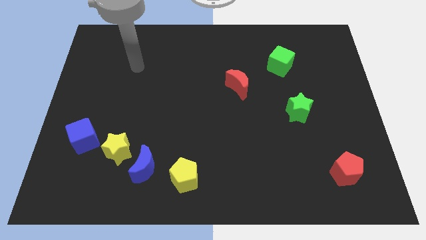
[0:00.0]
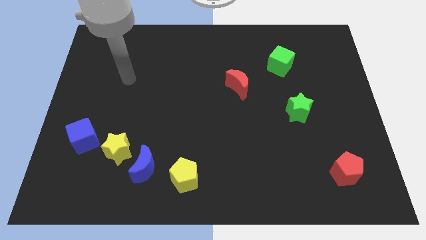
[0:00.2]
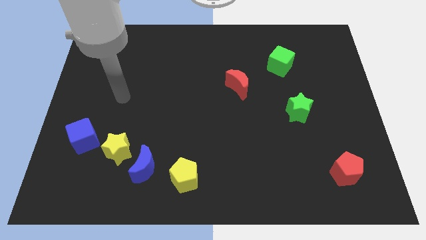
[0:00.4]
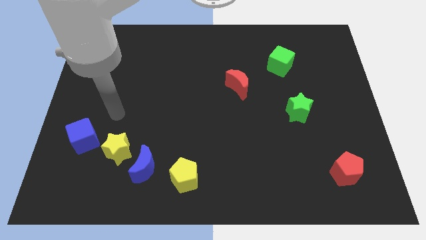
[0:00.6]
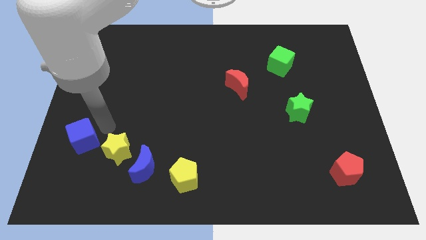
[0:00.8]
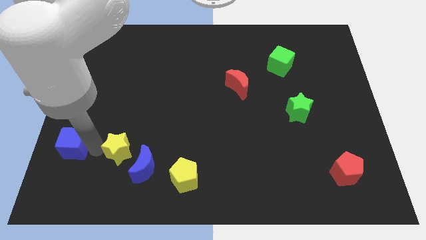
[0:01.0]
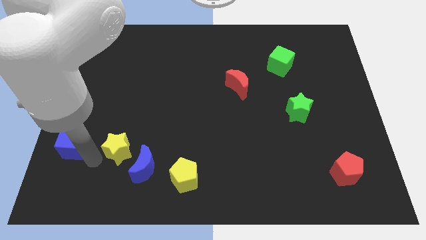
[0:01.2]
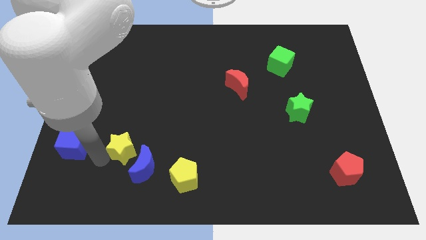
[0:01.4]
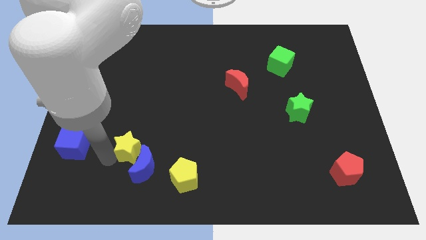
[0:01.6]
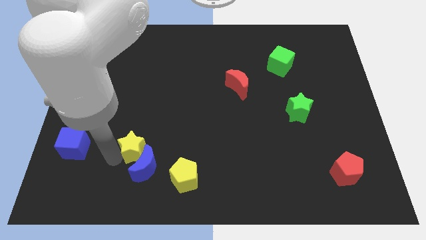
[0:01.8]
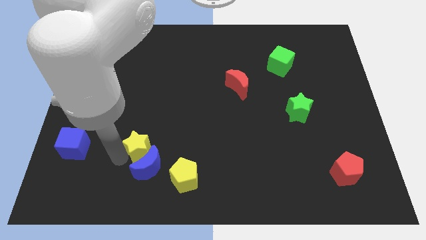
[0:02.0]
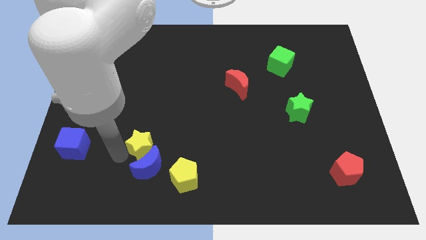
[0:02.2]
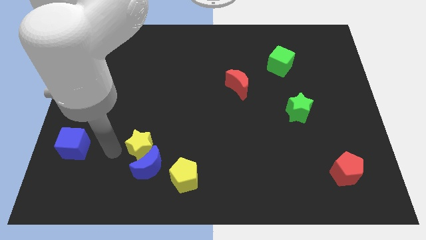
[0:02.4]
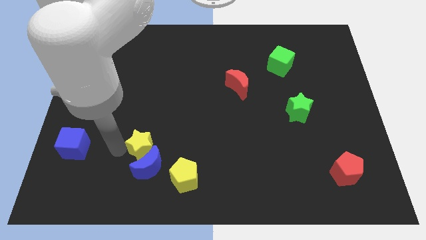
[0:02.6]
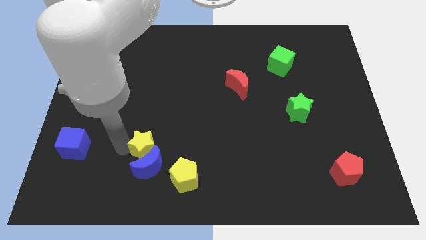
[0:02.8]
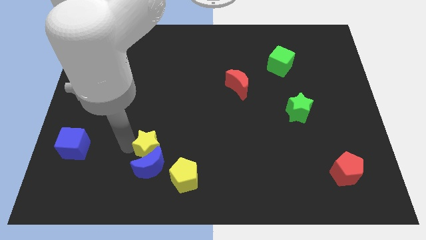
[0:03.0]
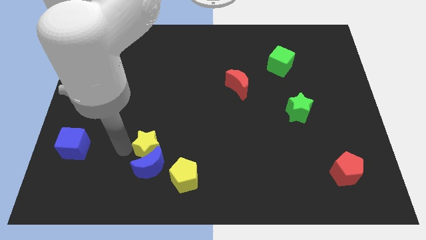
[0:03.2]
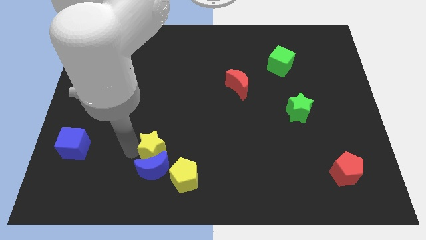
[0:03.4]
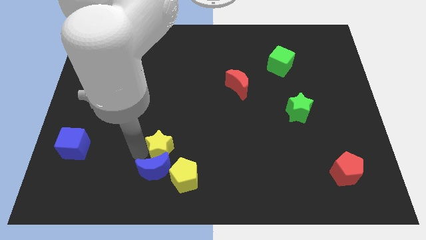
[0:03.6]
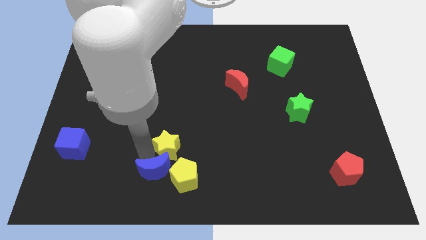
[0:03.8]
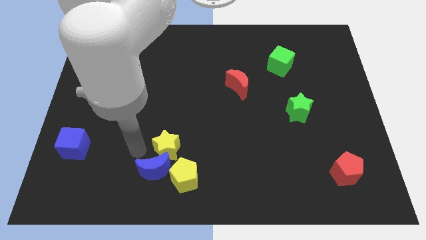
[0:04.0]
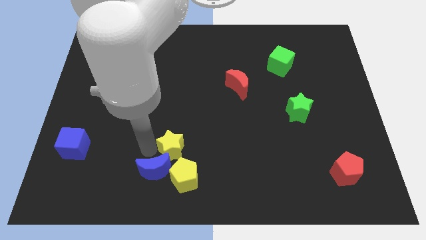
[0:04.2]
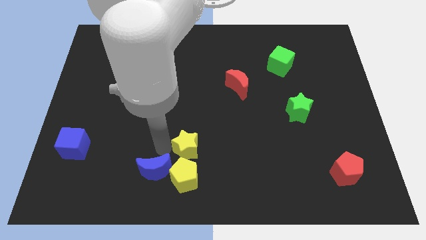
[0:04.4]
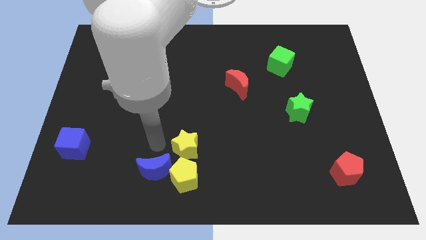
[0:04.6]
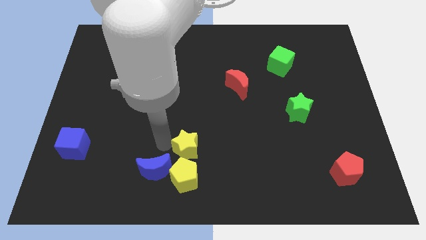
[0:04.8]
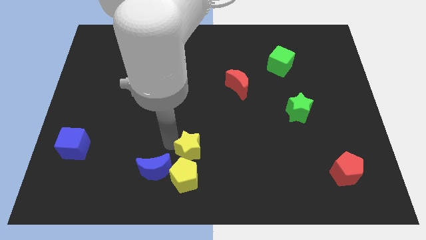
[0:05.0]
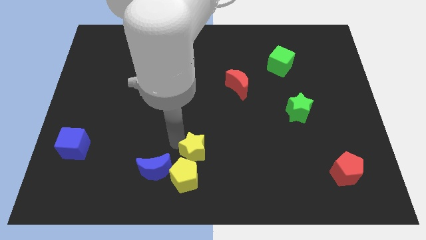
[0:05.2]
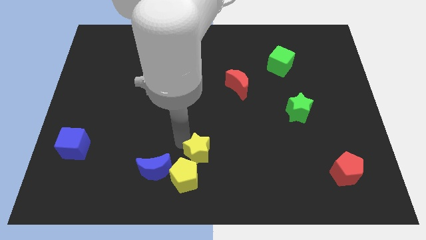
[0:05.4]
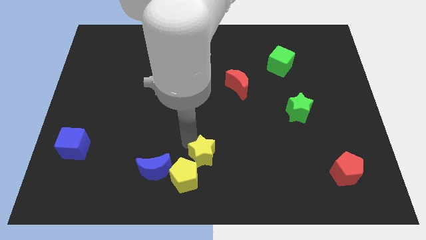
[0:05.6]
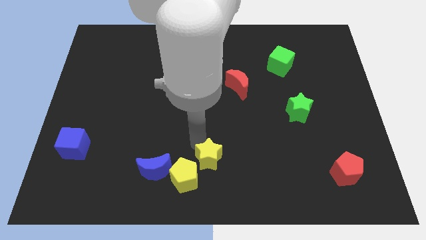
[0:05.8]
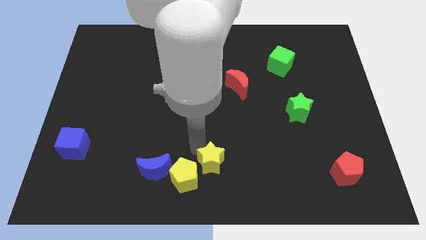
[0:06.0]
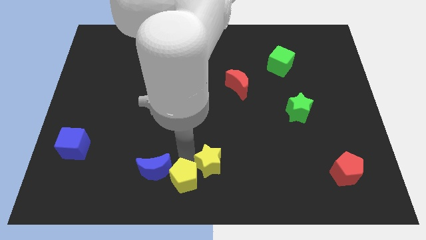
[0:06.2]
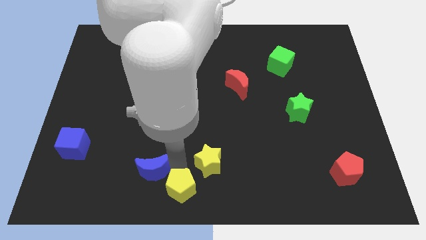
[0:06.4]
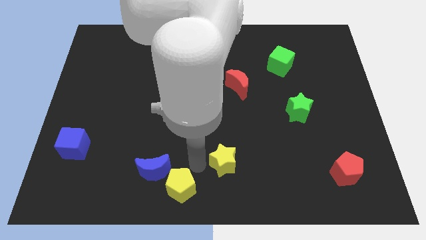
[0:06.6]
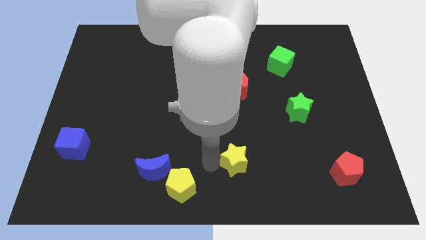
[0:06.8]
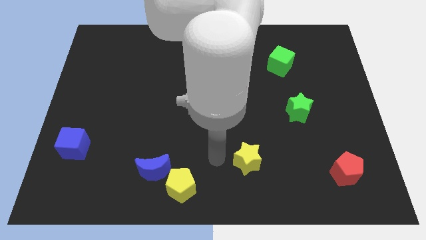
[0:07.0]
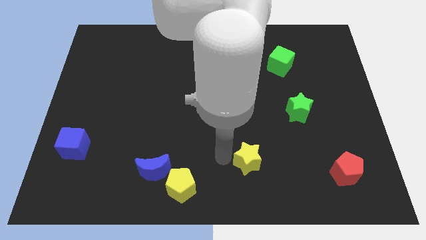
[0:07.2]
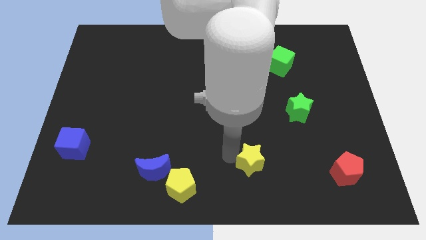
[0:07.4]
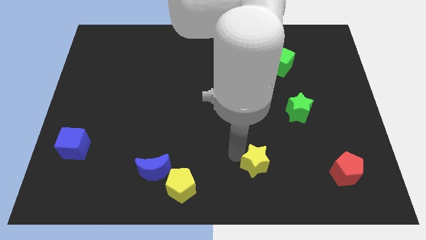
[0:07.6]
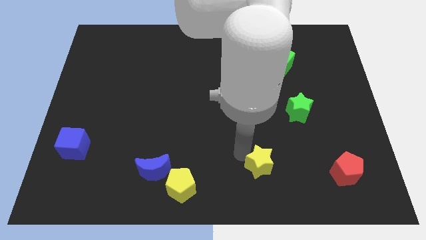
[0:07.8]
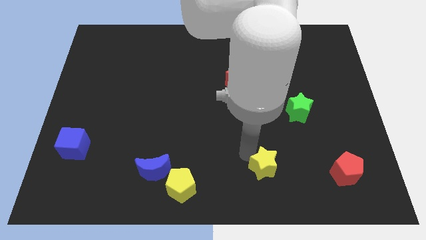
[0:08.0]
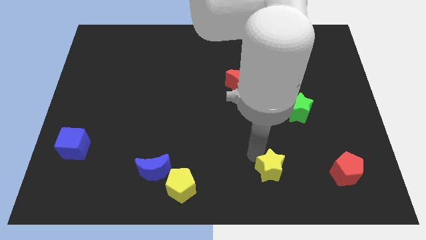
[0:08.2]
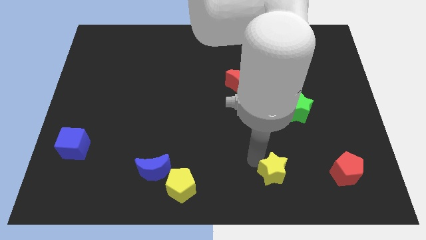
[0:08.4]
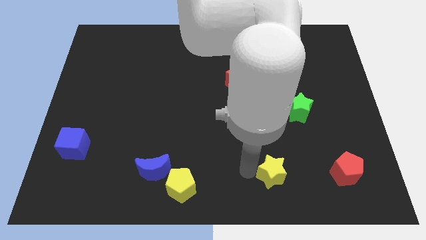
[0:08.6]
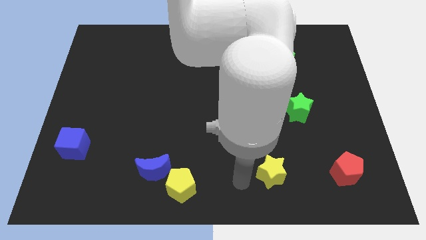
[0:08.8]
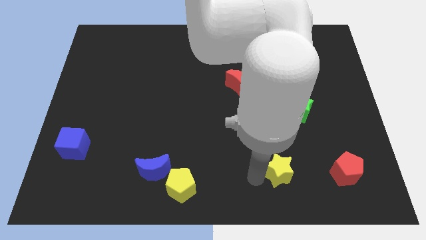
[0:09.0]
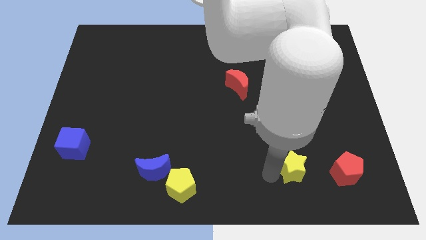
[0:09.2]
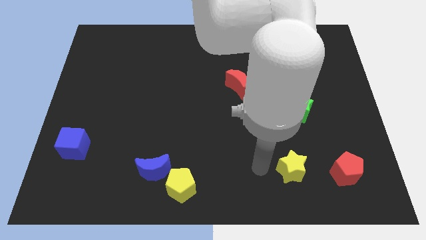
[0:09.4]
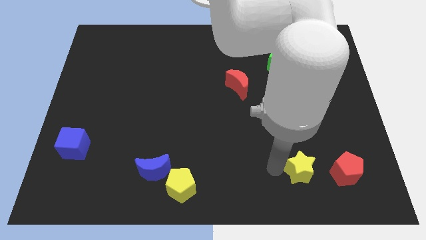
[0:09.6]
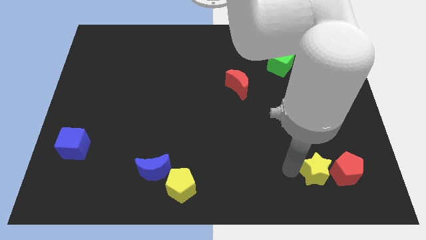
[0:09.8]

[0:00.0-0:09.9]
push the yellow star next to the red pentagon

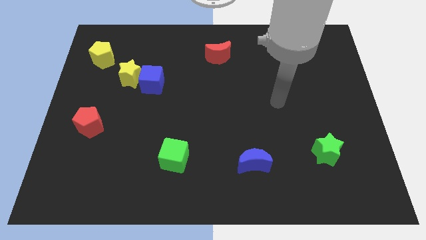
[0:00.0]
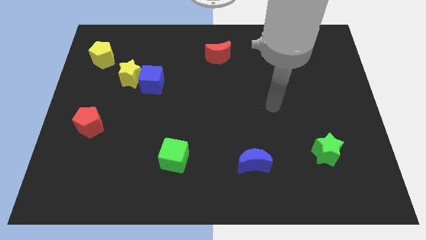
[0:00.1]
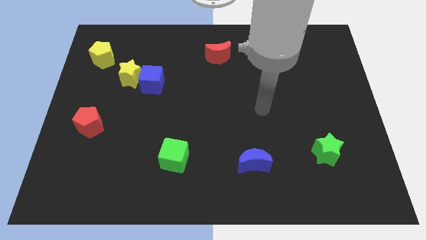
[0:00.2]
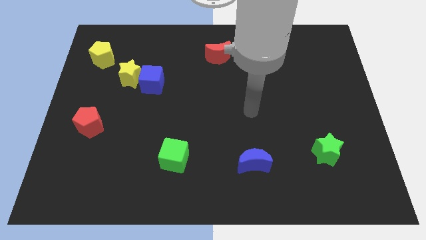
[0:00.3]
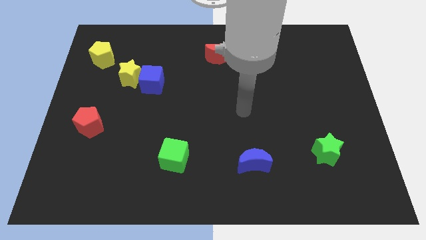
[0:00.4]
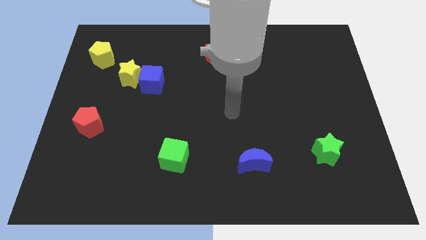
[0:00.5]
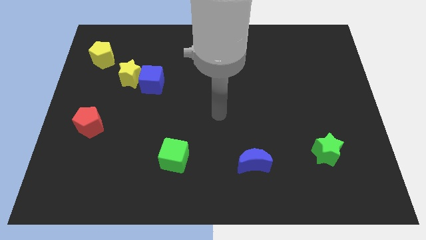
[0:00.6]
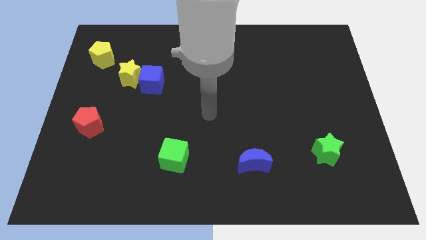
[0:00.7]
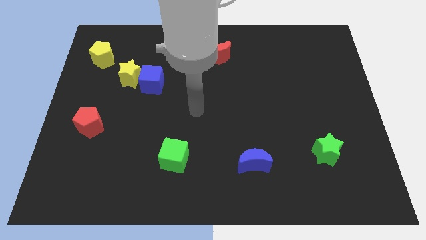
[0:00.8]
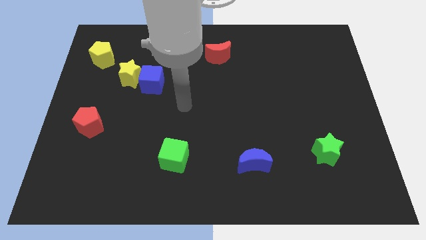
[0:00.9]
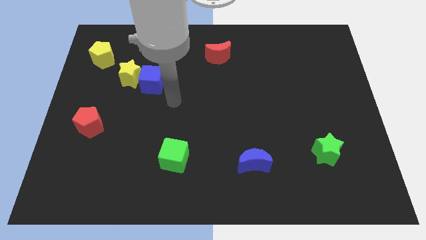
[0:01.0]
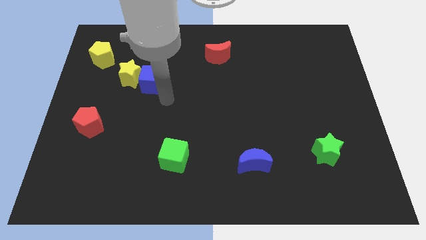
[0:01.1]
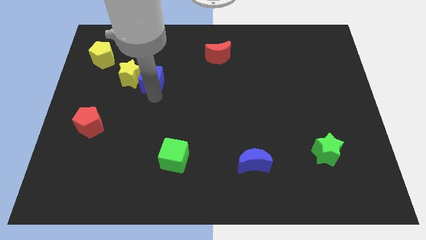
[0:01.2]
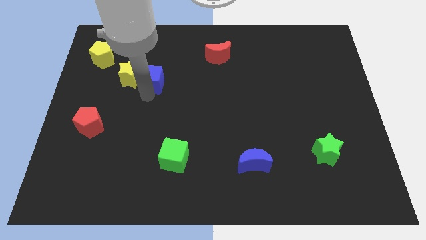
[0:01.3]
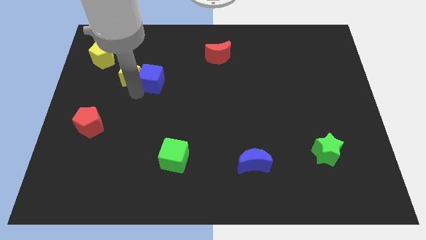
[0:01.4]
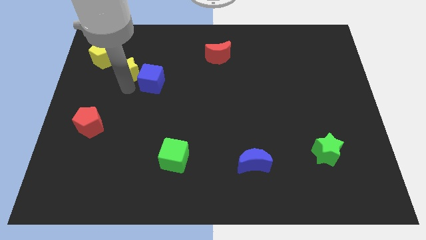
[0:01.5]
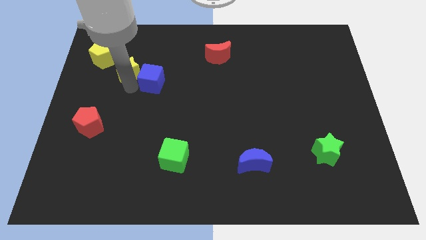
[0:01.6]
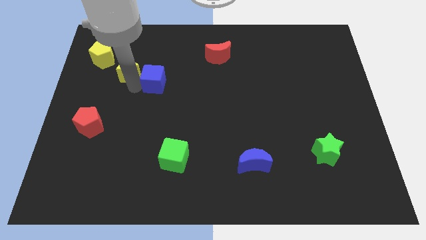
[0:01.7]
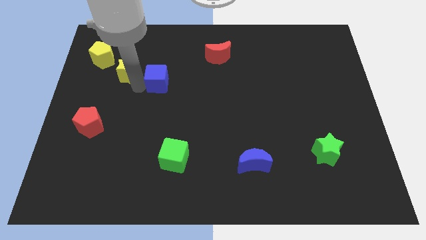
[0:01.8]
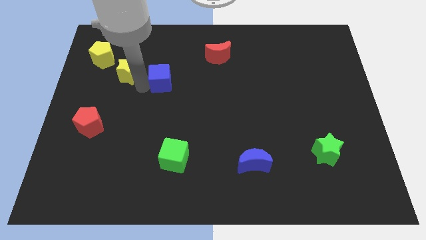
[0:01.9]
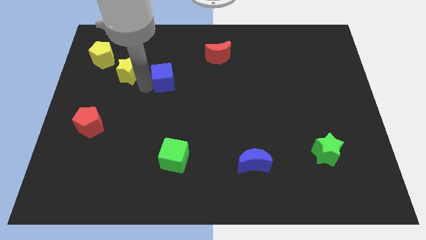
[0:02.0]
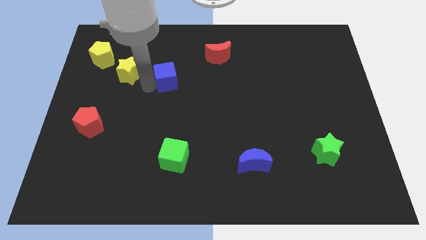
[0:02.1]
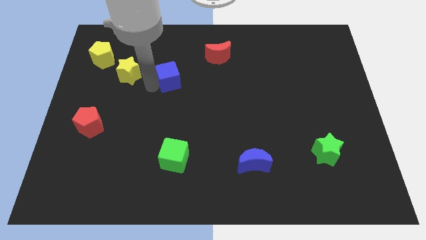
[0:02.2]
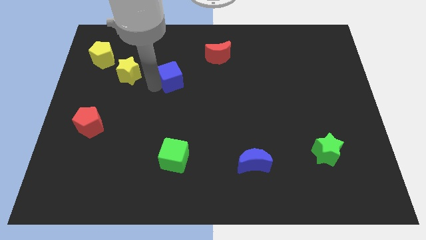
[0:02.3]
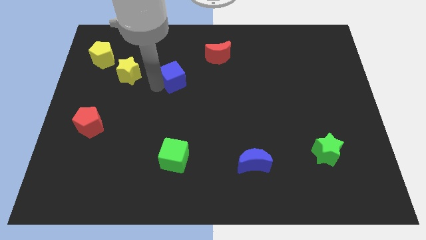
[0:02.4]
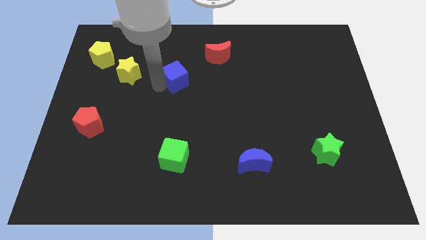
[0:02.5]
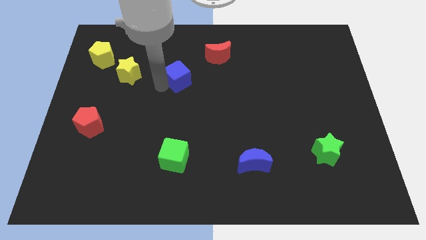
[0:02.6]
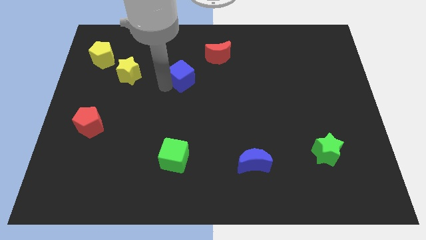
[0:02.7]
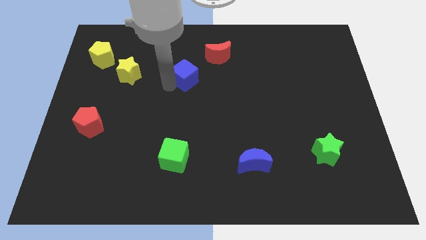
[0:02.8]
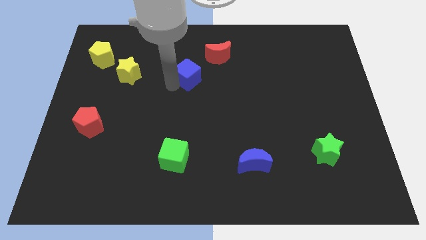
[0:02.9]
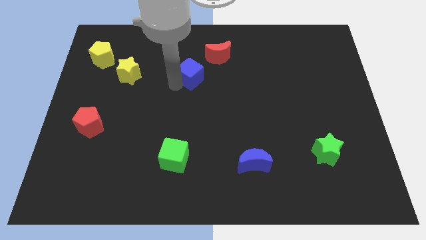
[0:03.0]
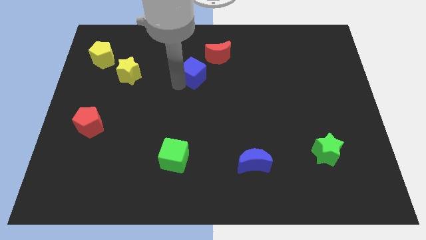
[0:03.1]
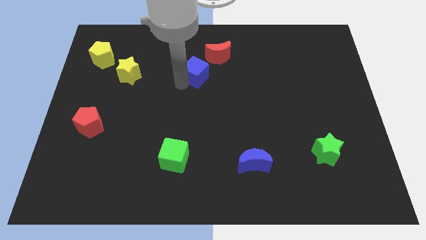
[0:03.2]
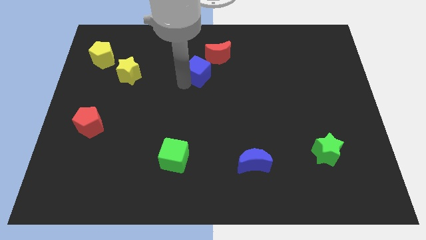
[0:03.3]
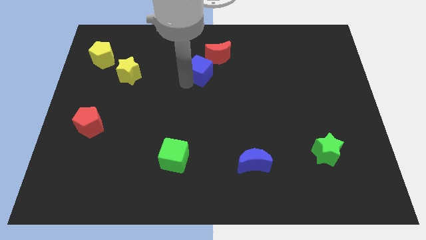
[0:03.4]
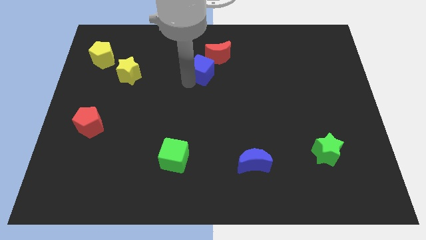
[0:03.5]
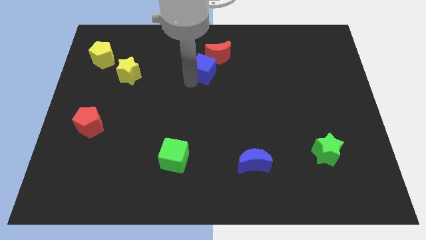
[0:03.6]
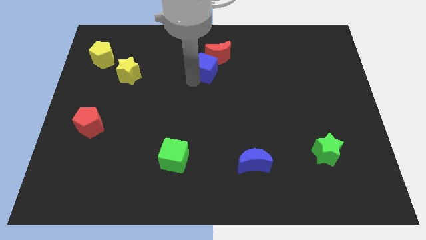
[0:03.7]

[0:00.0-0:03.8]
push the blue cube towards the red moon
